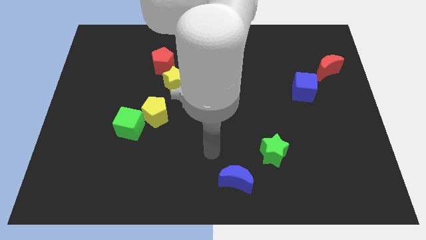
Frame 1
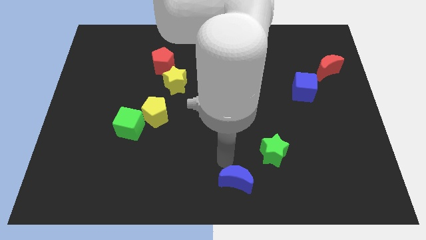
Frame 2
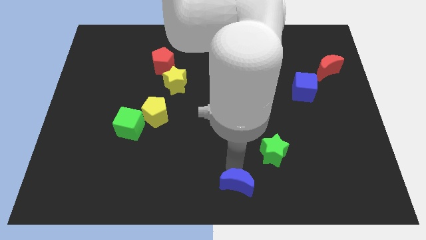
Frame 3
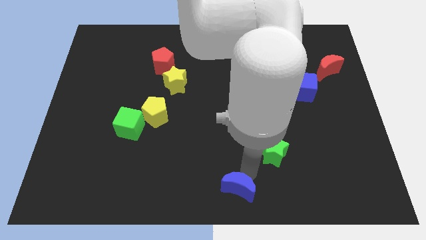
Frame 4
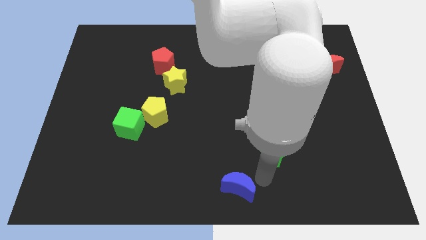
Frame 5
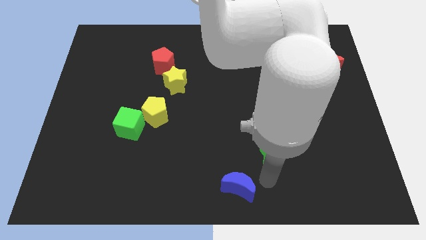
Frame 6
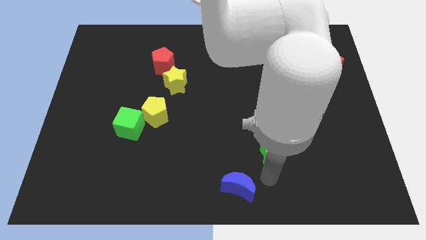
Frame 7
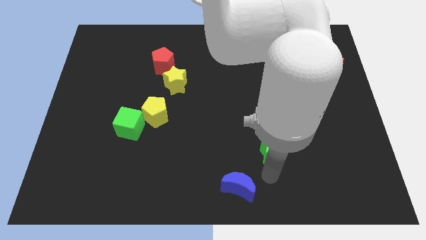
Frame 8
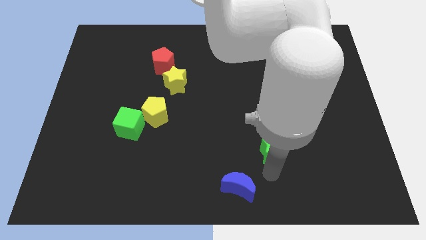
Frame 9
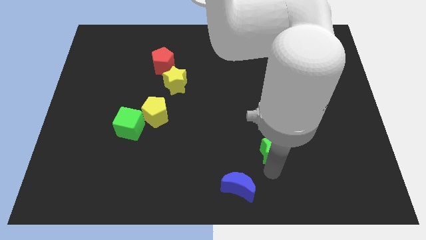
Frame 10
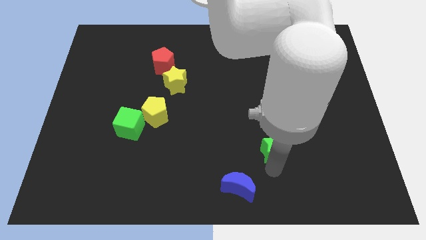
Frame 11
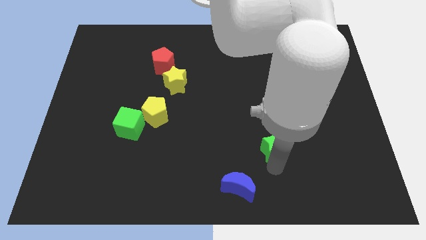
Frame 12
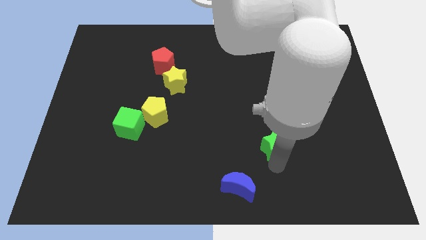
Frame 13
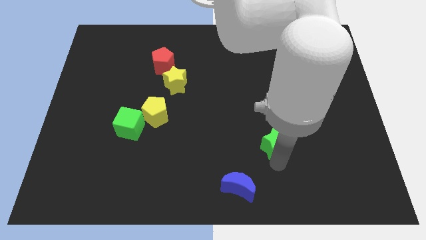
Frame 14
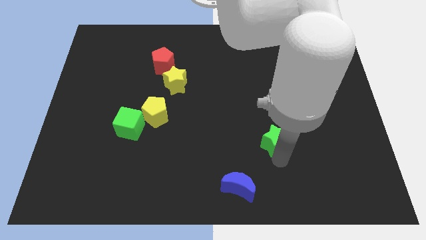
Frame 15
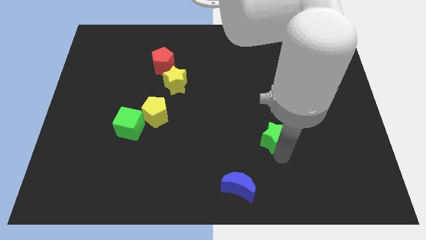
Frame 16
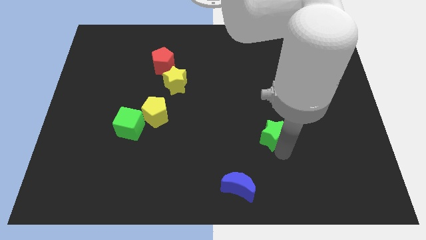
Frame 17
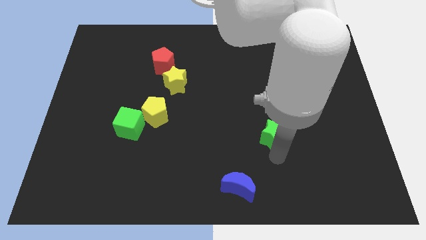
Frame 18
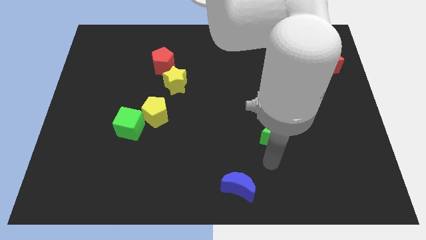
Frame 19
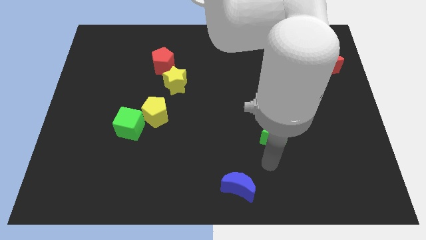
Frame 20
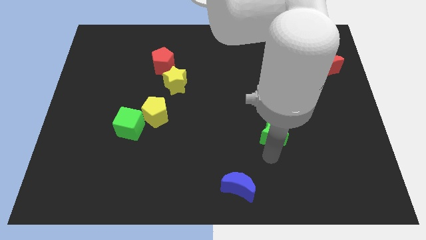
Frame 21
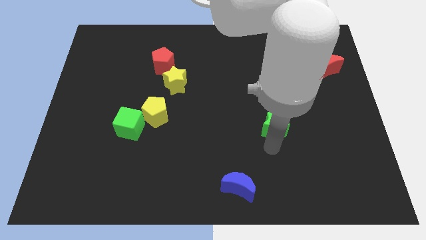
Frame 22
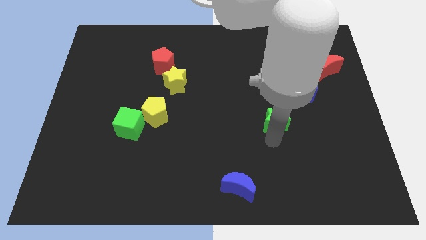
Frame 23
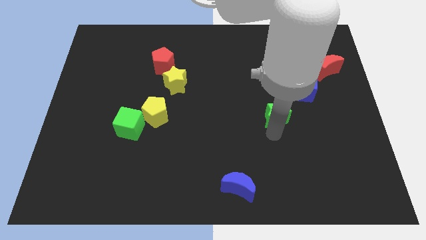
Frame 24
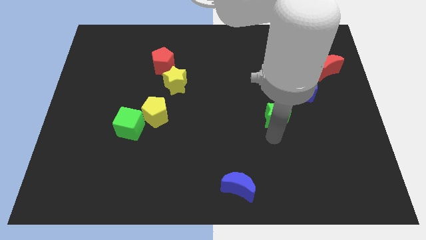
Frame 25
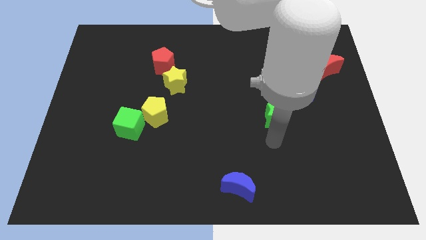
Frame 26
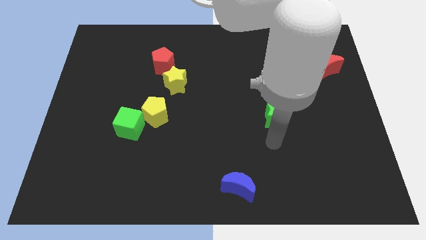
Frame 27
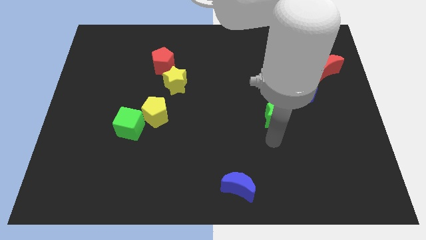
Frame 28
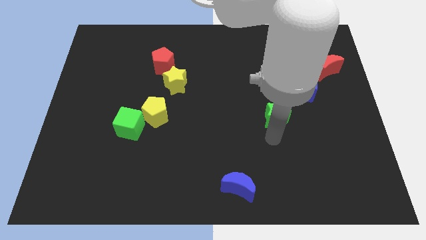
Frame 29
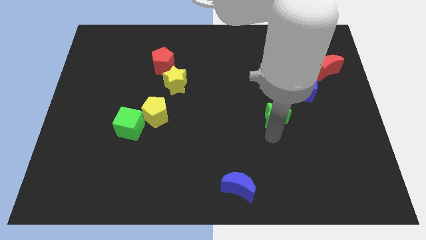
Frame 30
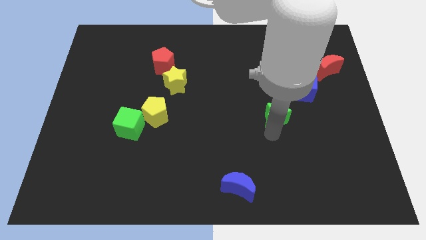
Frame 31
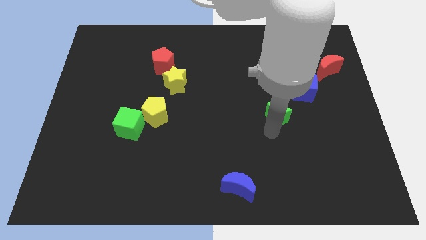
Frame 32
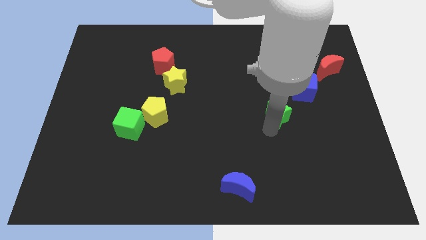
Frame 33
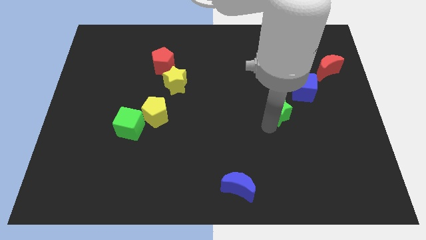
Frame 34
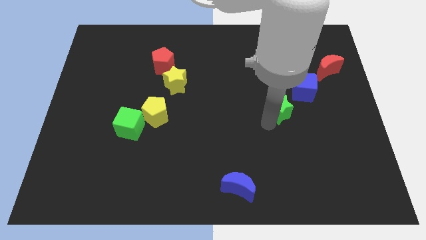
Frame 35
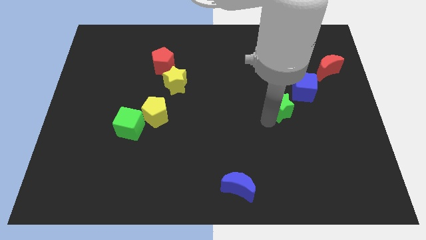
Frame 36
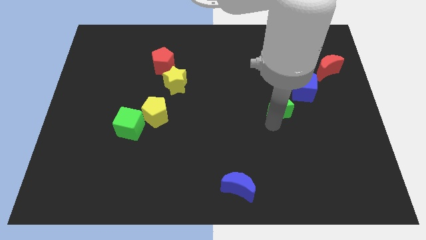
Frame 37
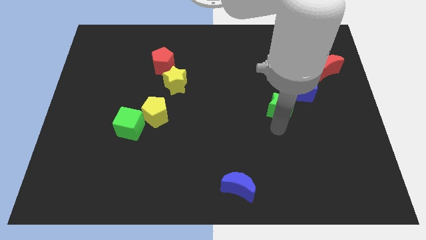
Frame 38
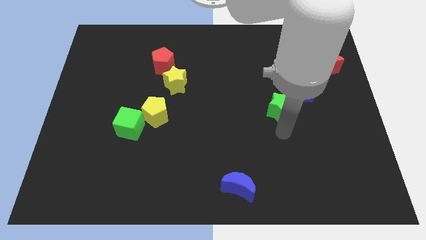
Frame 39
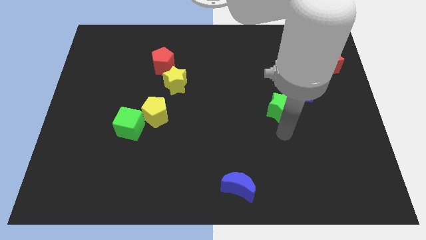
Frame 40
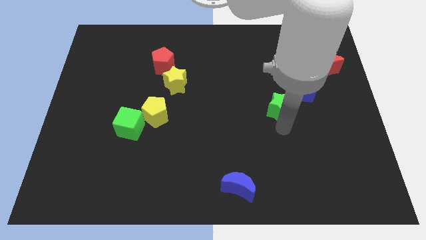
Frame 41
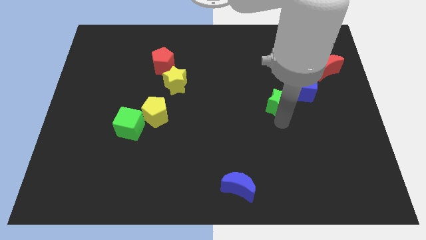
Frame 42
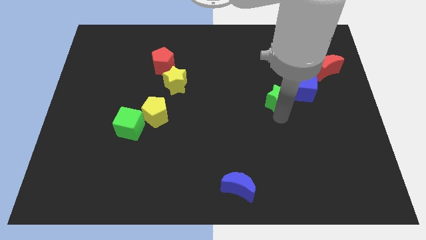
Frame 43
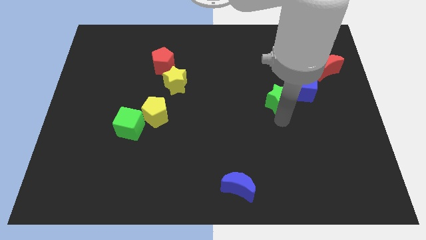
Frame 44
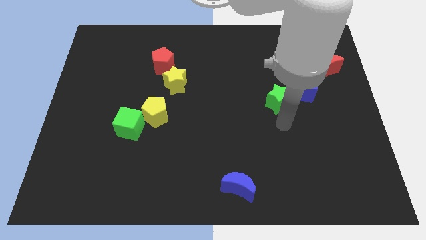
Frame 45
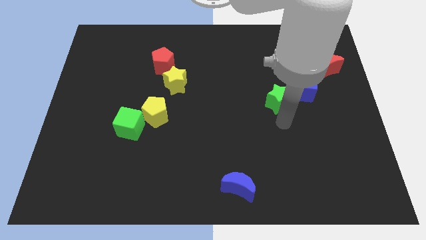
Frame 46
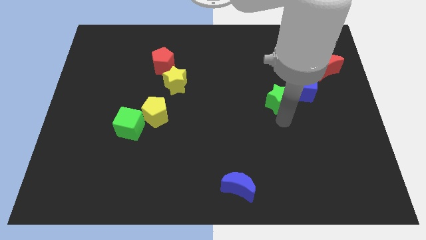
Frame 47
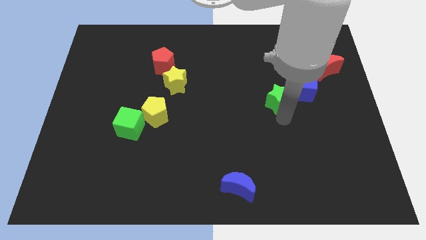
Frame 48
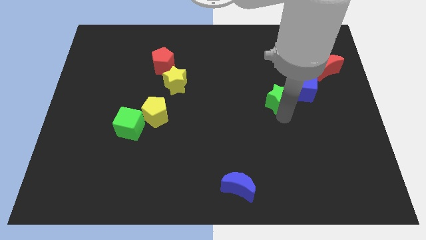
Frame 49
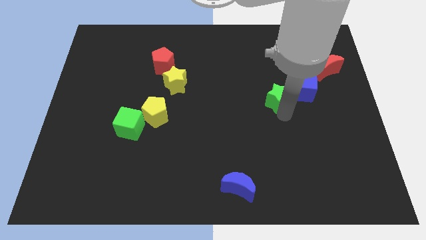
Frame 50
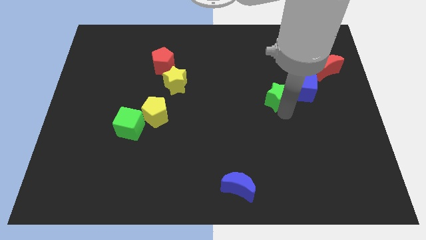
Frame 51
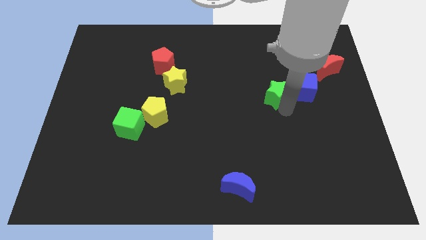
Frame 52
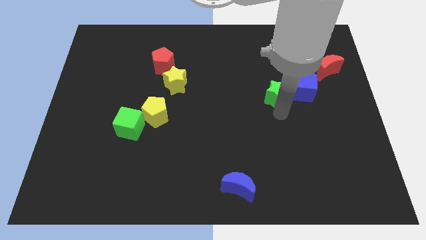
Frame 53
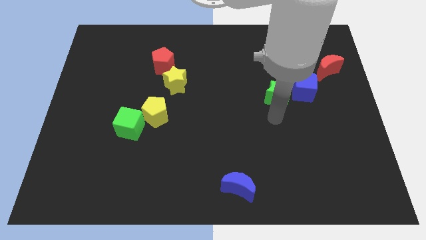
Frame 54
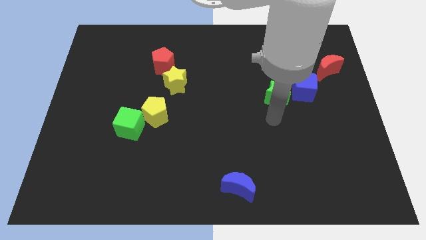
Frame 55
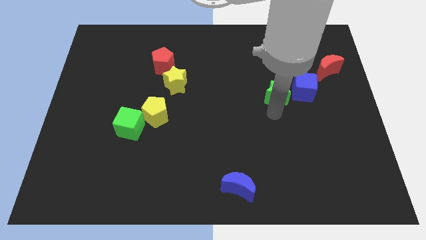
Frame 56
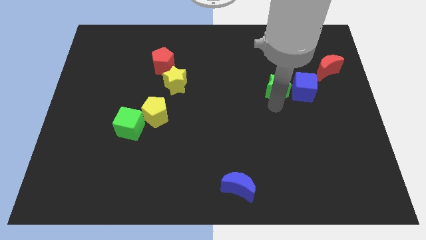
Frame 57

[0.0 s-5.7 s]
push the green star diagonally up and to the left of the blue cube

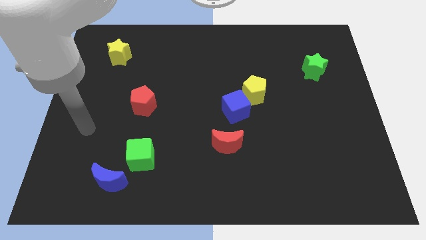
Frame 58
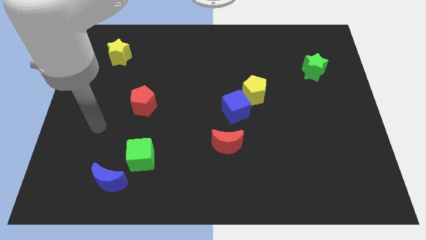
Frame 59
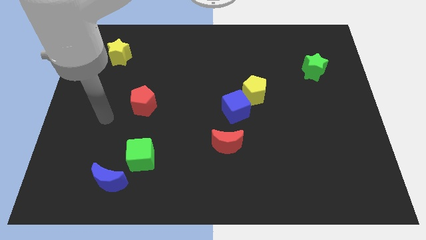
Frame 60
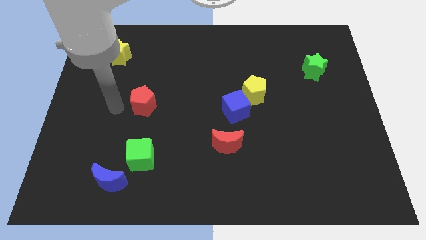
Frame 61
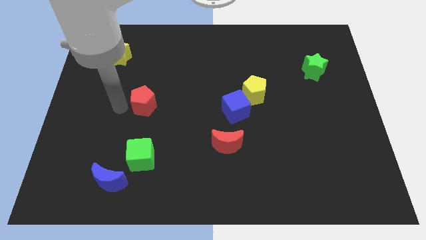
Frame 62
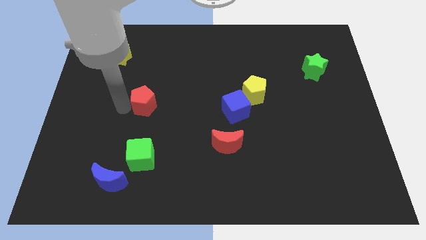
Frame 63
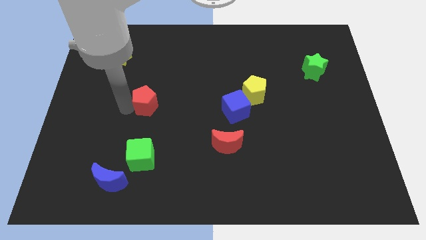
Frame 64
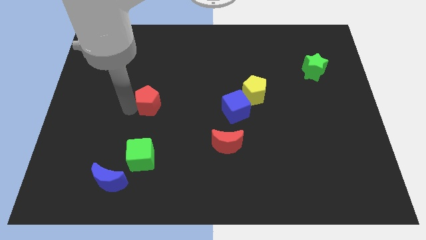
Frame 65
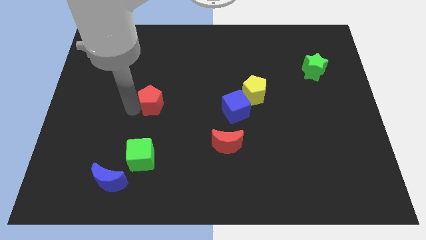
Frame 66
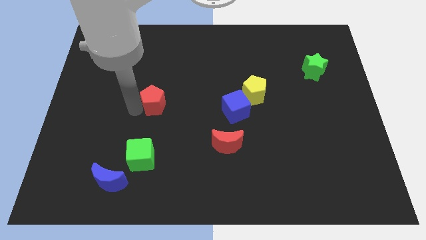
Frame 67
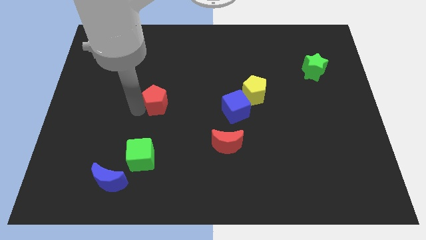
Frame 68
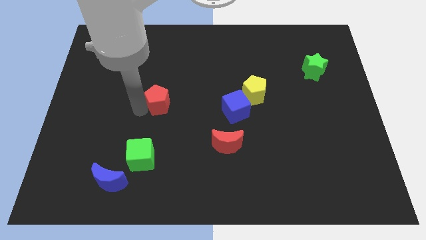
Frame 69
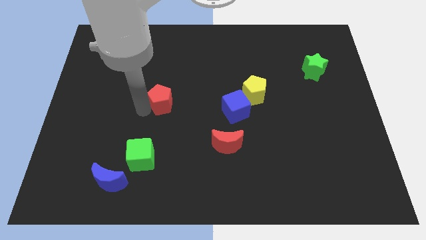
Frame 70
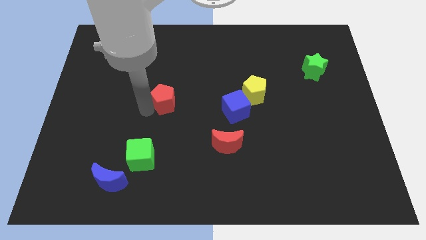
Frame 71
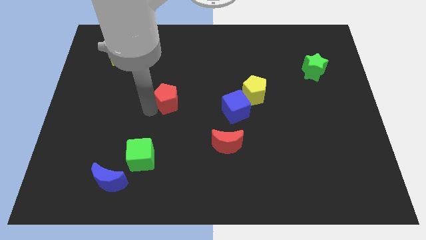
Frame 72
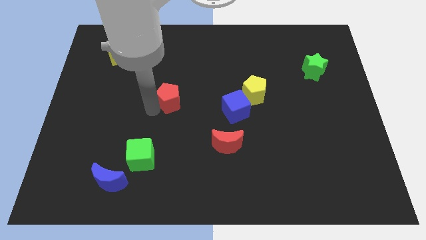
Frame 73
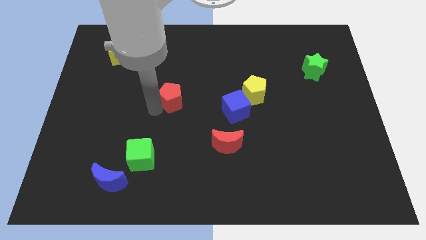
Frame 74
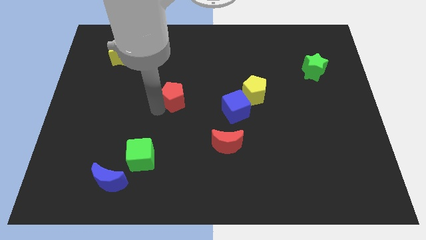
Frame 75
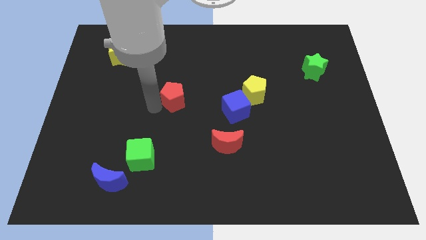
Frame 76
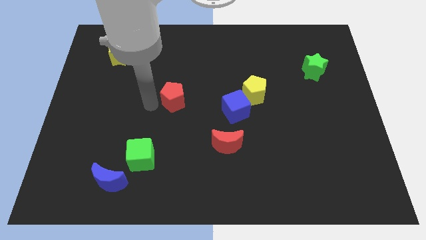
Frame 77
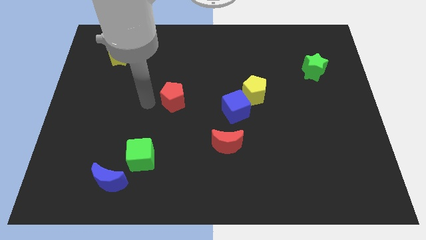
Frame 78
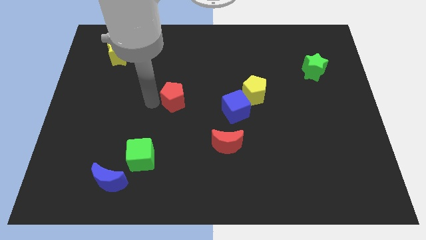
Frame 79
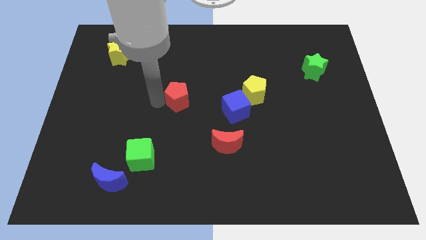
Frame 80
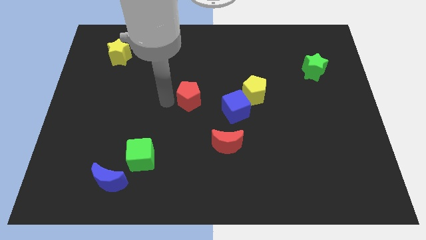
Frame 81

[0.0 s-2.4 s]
put the red pentagon left of the yellow pentagon

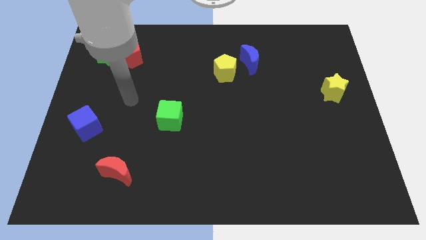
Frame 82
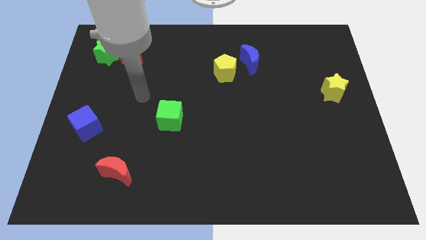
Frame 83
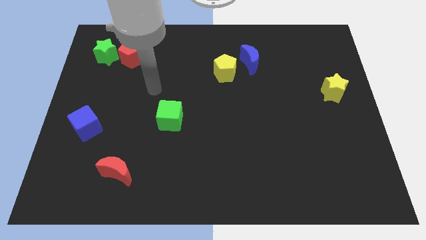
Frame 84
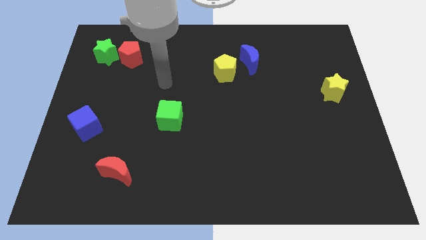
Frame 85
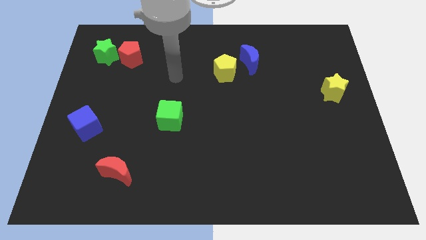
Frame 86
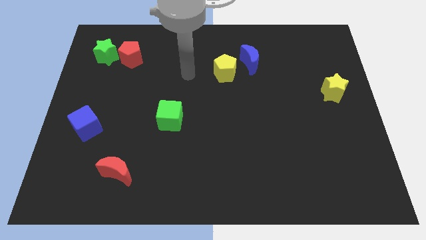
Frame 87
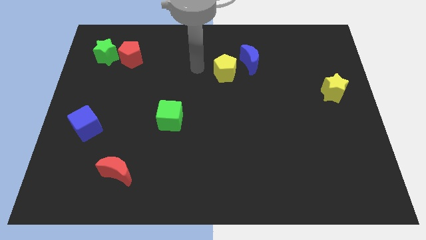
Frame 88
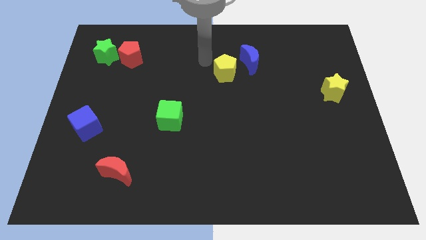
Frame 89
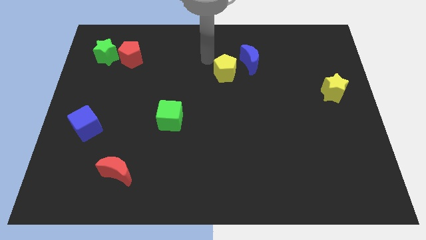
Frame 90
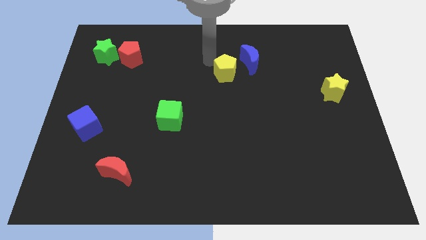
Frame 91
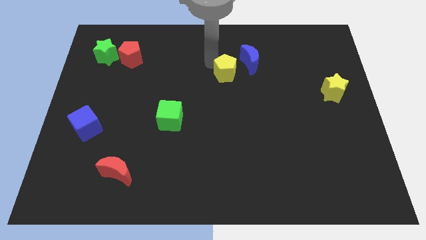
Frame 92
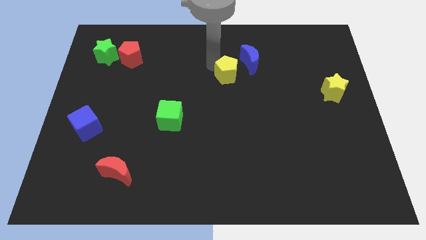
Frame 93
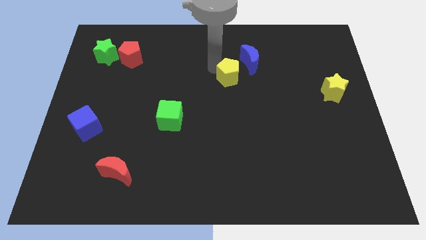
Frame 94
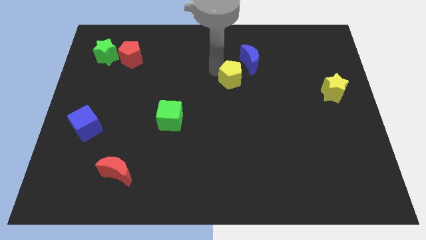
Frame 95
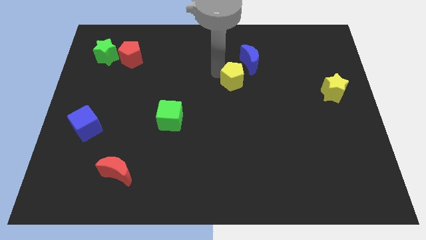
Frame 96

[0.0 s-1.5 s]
put the yellow pentagon below the blue moon
